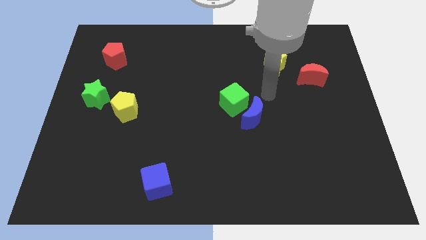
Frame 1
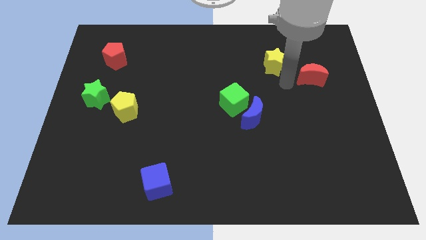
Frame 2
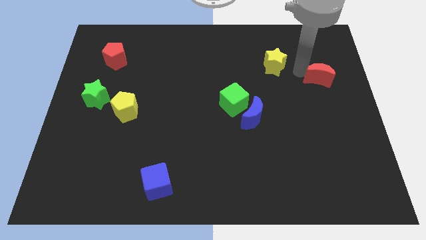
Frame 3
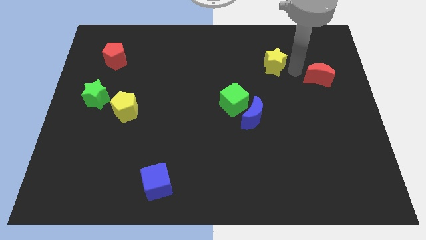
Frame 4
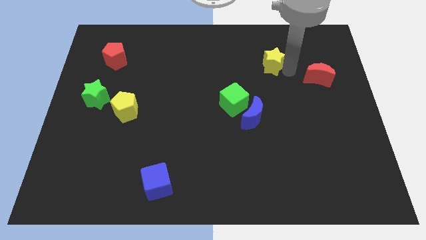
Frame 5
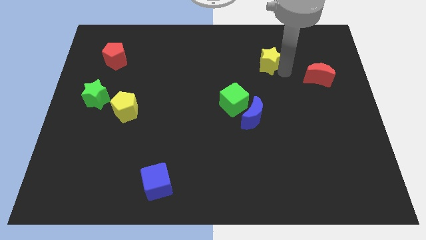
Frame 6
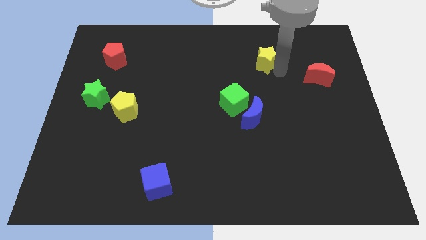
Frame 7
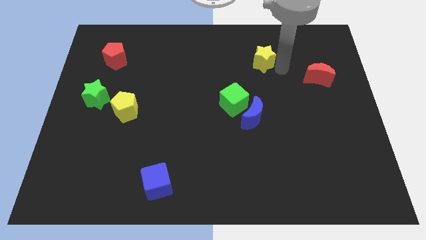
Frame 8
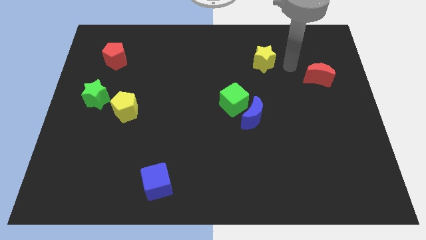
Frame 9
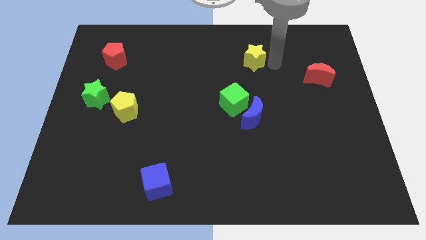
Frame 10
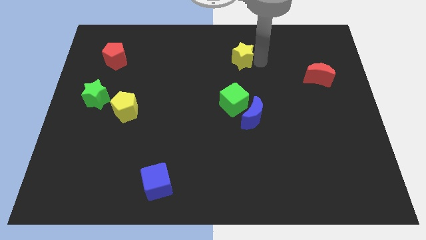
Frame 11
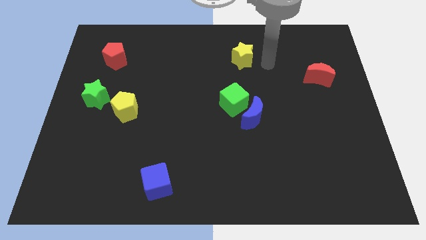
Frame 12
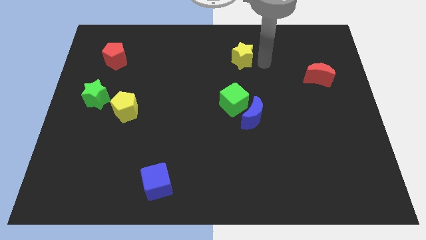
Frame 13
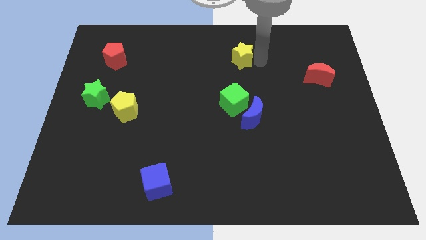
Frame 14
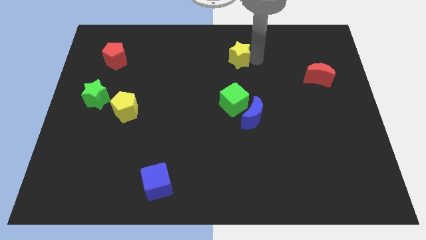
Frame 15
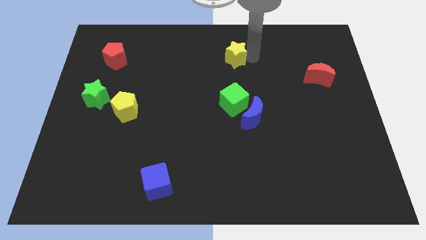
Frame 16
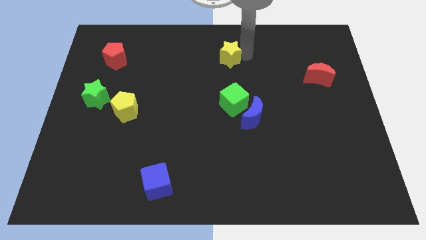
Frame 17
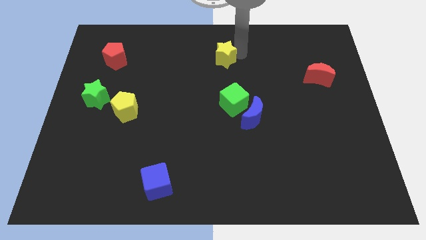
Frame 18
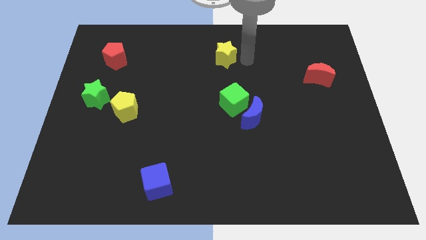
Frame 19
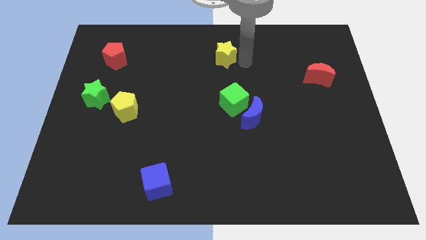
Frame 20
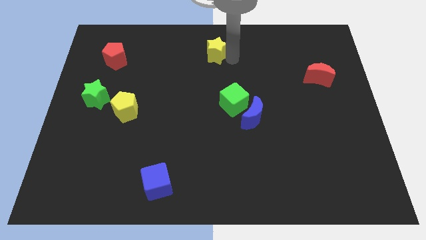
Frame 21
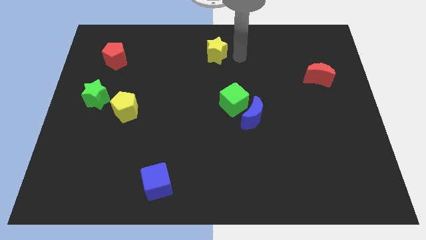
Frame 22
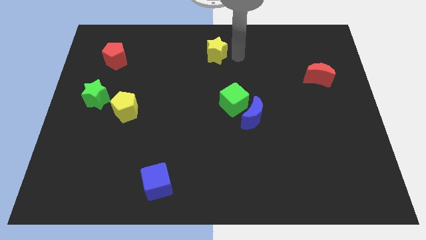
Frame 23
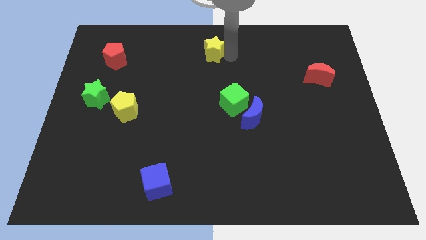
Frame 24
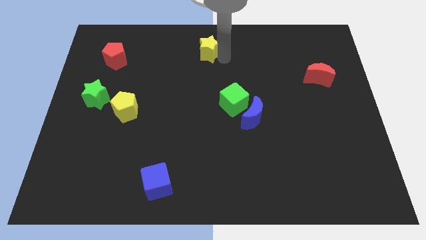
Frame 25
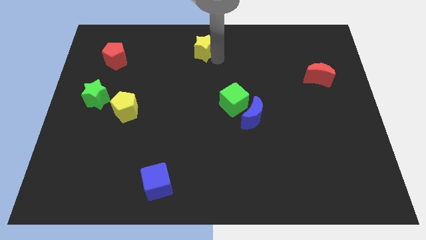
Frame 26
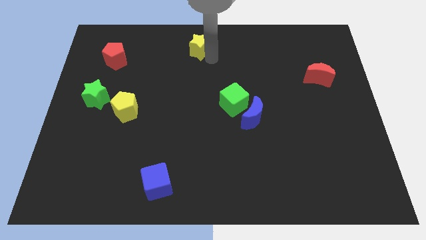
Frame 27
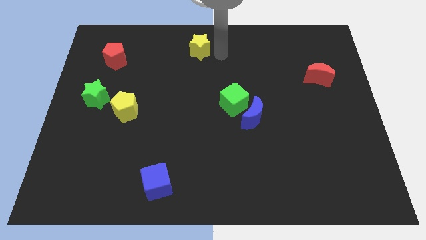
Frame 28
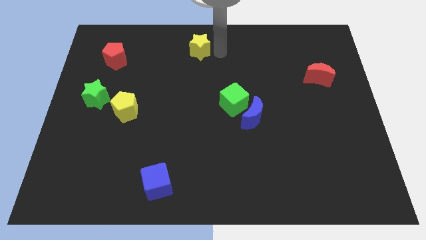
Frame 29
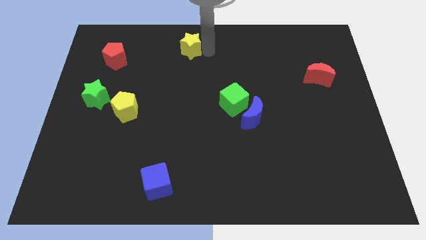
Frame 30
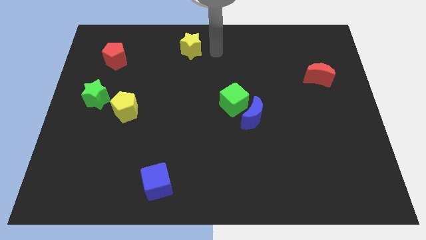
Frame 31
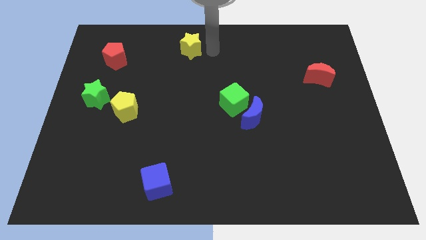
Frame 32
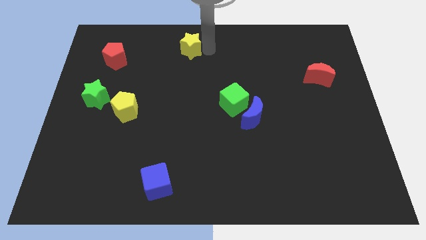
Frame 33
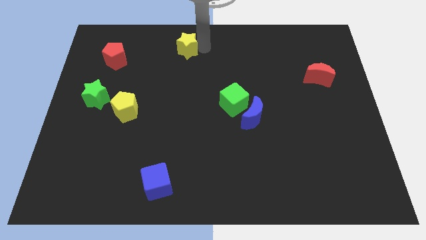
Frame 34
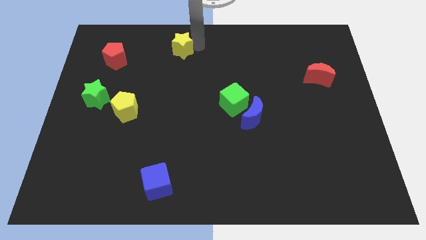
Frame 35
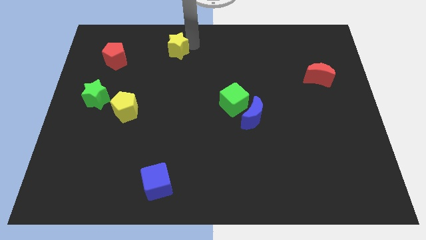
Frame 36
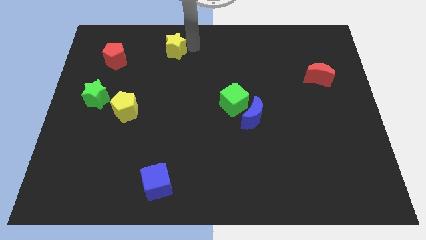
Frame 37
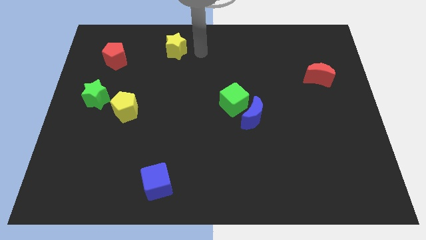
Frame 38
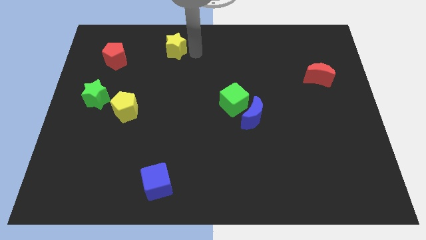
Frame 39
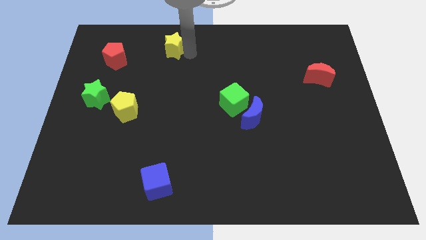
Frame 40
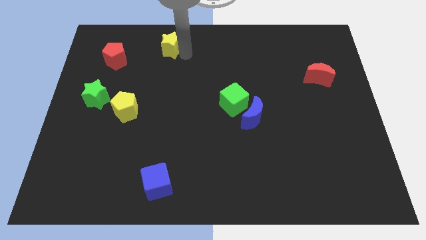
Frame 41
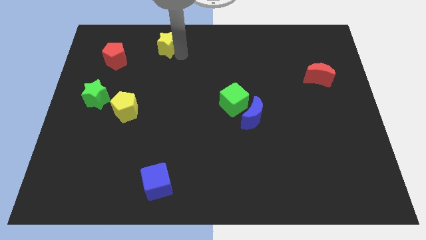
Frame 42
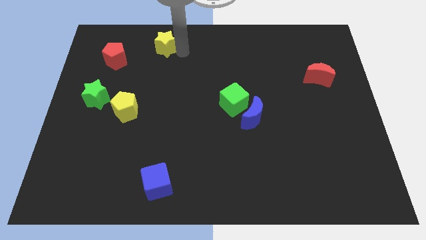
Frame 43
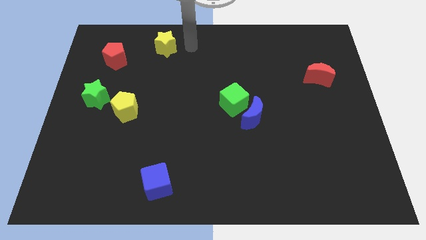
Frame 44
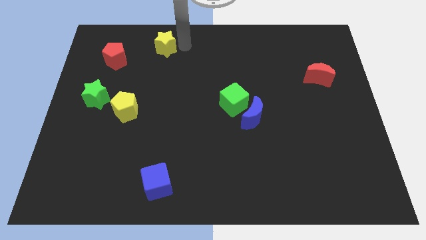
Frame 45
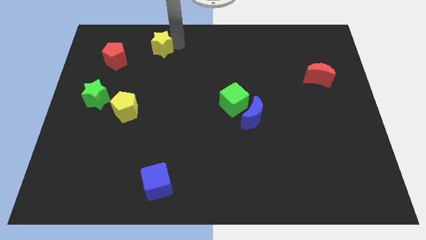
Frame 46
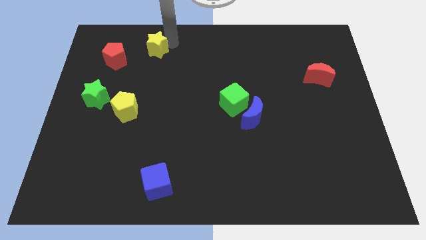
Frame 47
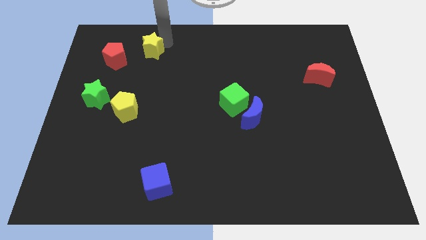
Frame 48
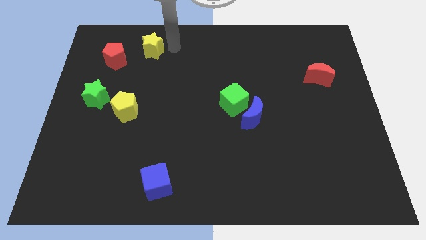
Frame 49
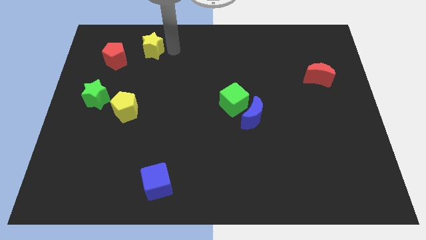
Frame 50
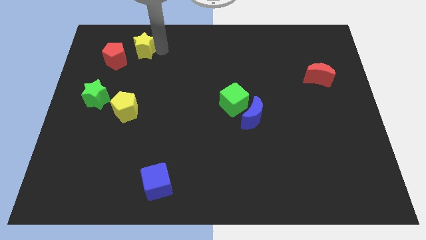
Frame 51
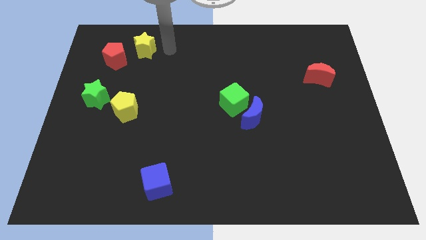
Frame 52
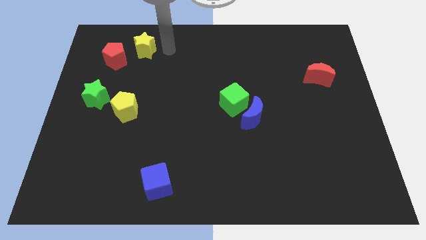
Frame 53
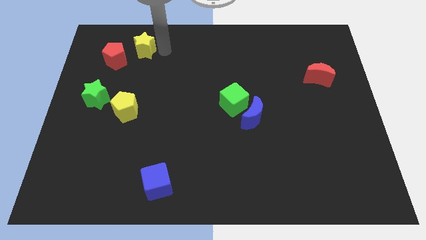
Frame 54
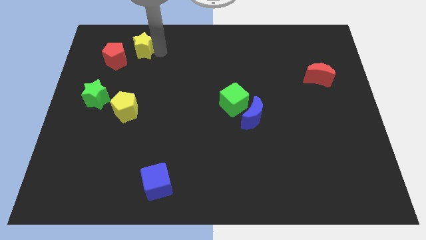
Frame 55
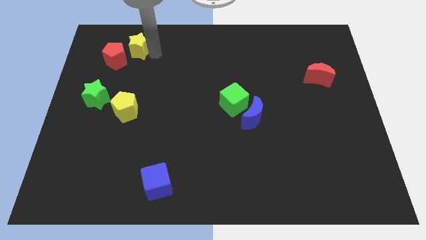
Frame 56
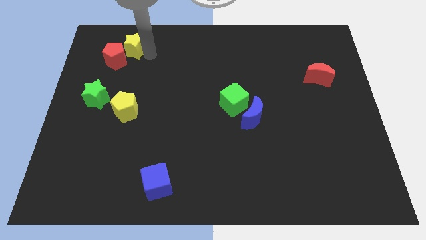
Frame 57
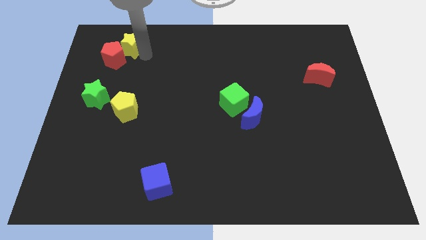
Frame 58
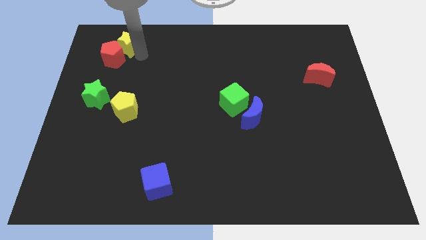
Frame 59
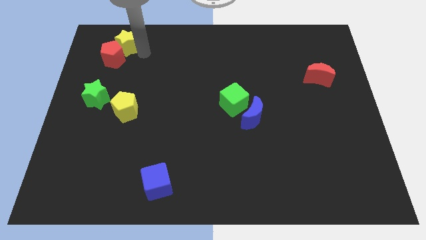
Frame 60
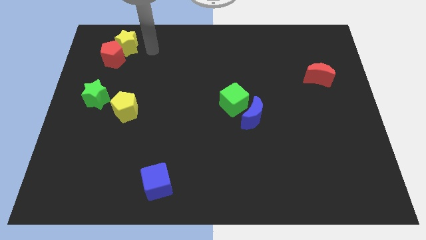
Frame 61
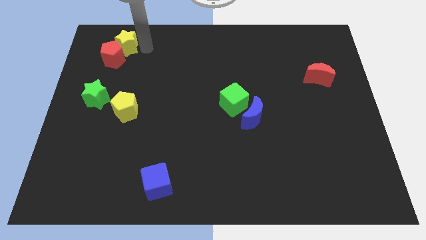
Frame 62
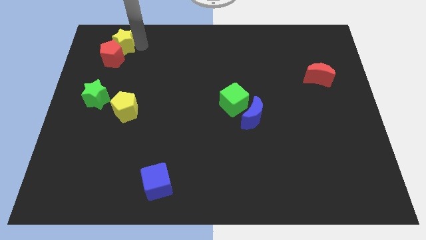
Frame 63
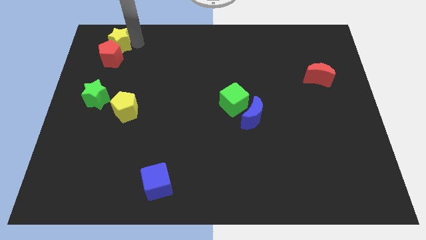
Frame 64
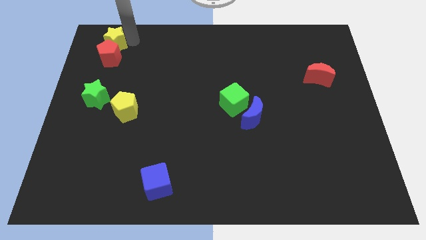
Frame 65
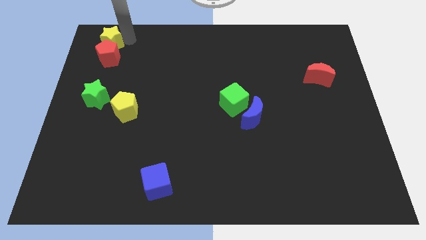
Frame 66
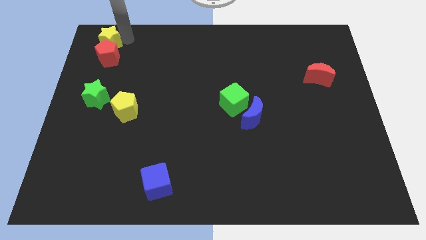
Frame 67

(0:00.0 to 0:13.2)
move the yellow star to the top left of the board
